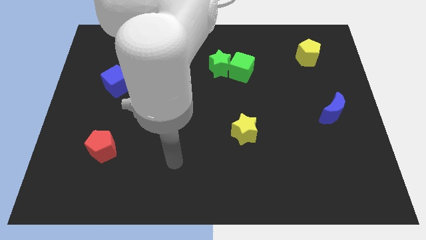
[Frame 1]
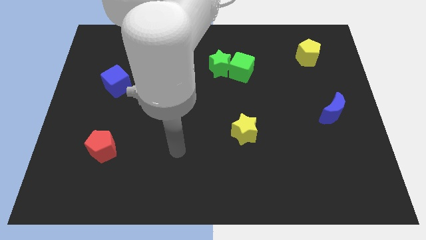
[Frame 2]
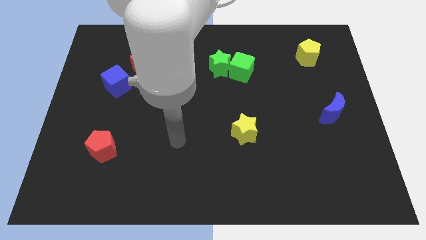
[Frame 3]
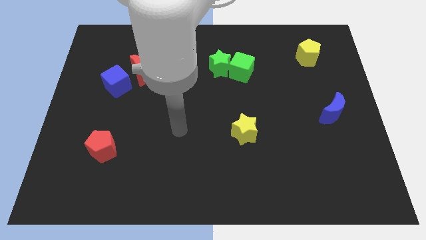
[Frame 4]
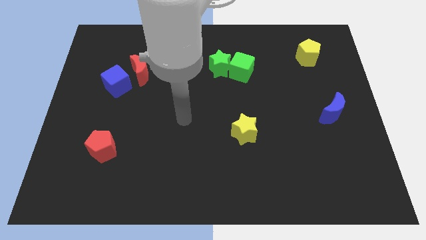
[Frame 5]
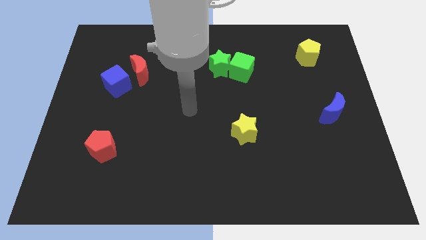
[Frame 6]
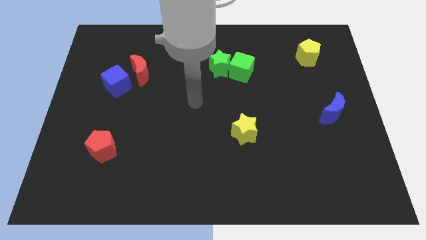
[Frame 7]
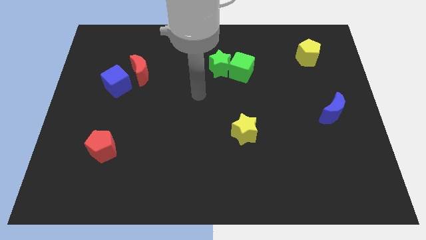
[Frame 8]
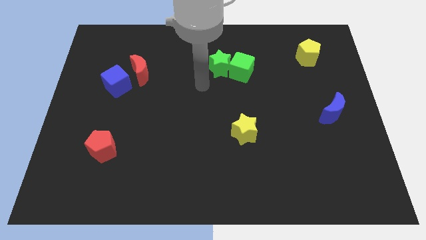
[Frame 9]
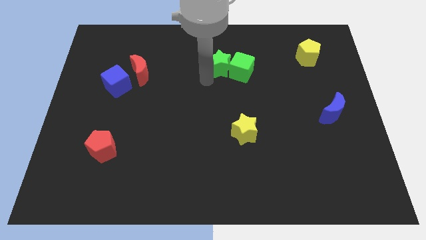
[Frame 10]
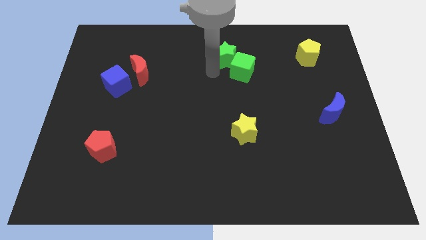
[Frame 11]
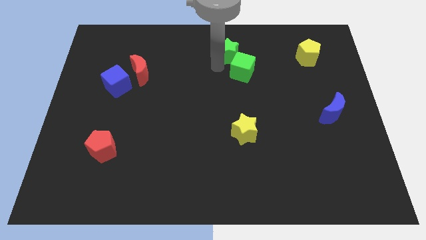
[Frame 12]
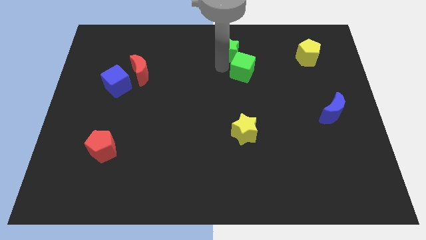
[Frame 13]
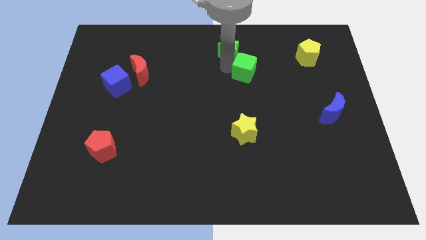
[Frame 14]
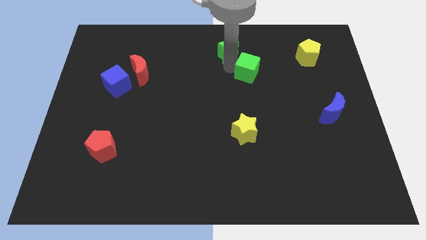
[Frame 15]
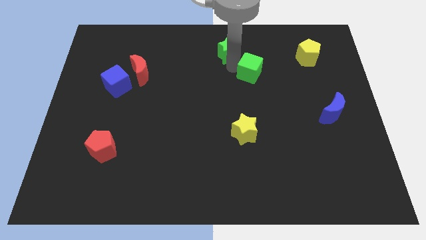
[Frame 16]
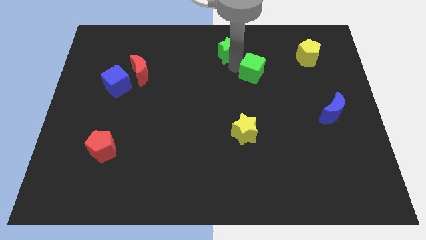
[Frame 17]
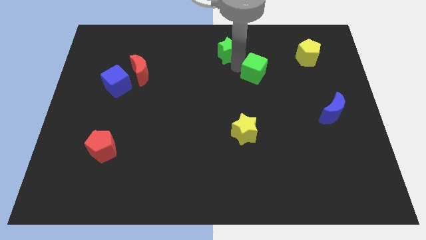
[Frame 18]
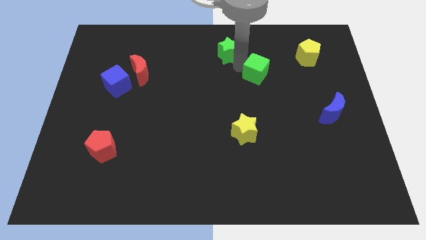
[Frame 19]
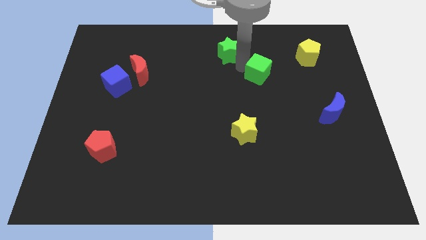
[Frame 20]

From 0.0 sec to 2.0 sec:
move the green cube away from the green star

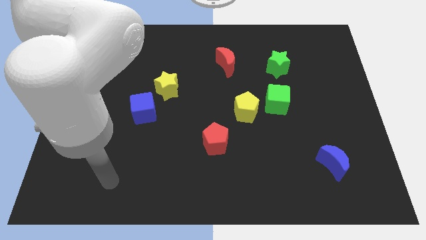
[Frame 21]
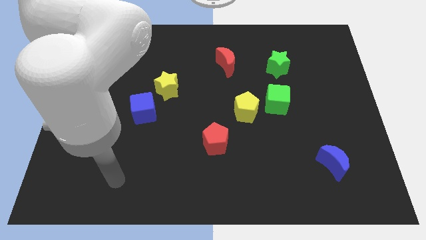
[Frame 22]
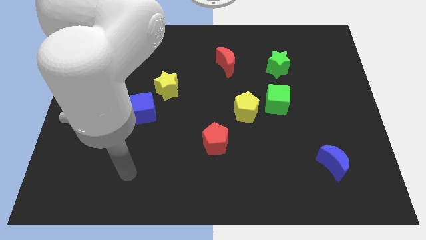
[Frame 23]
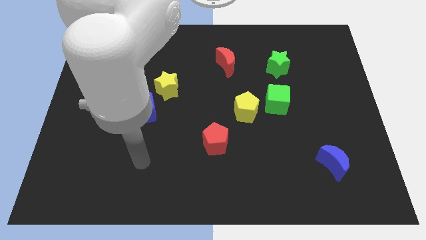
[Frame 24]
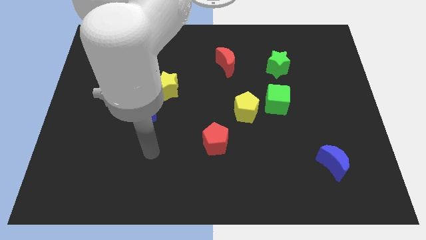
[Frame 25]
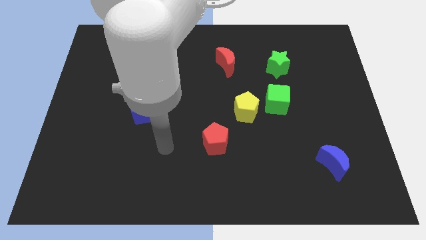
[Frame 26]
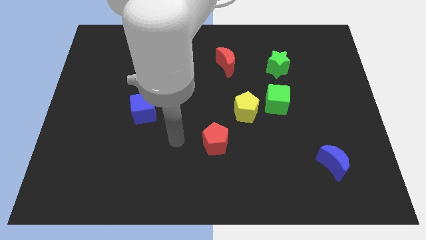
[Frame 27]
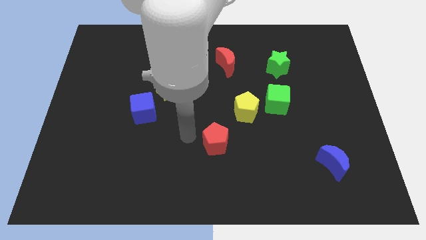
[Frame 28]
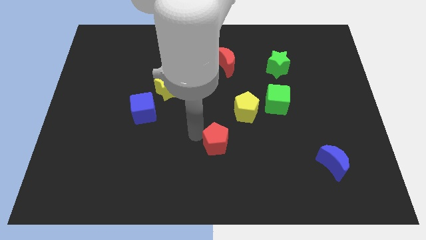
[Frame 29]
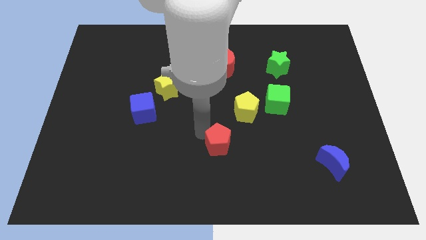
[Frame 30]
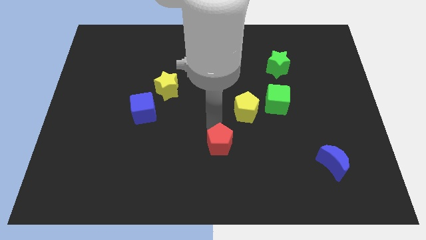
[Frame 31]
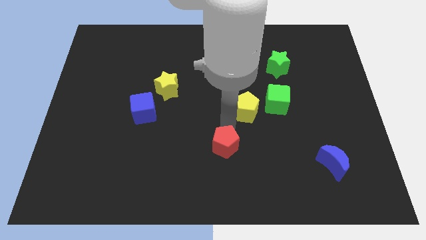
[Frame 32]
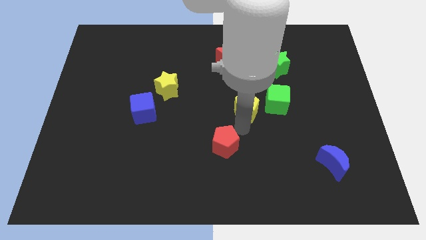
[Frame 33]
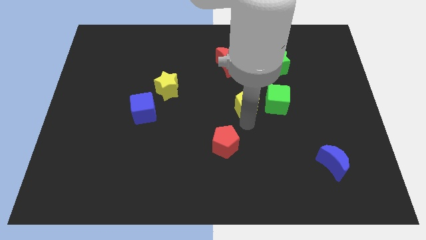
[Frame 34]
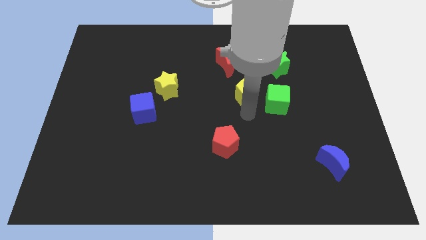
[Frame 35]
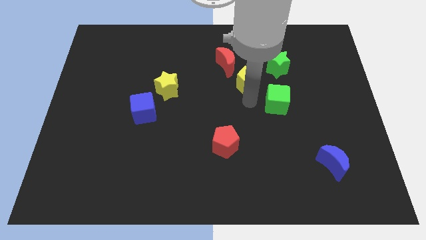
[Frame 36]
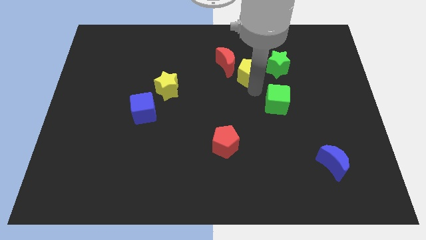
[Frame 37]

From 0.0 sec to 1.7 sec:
move the green cube away from the yellow pentagon

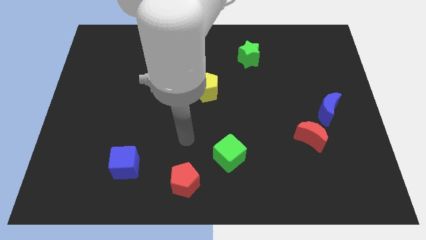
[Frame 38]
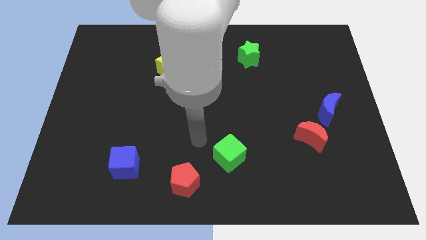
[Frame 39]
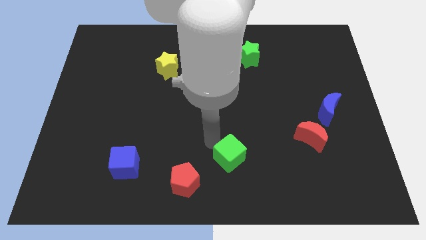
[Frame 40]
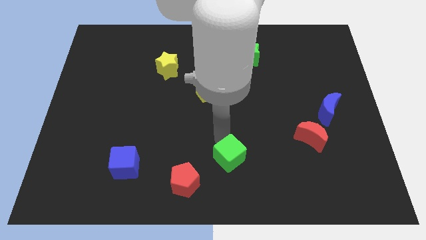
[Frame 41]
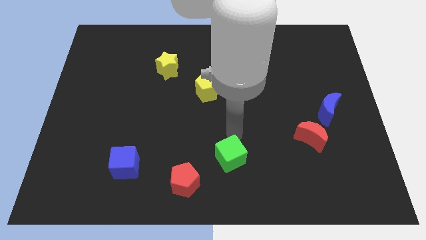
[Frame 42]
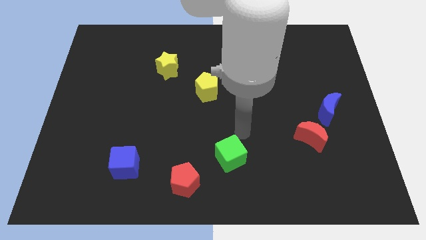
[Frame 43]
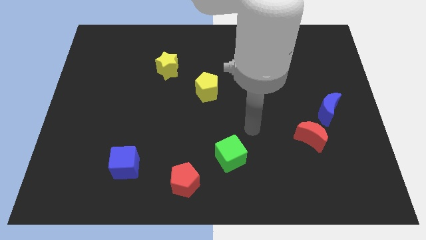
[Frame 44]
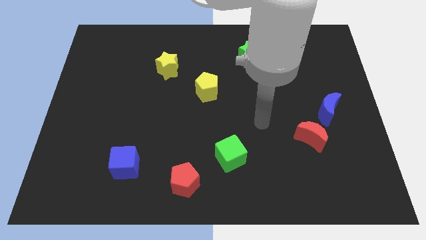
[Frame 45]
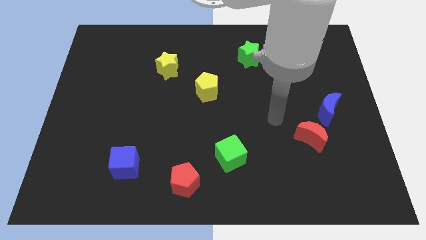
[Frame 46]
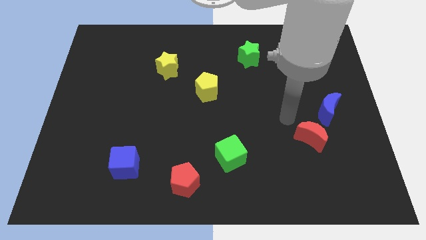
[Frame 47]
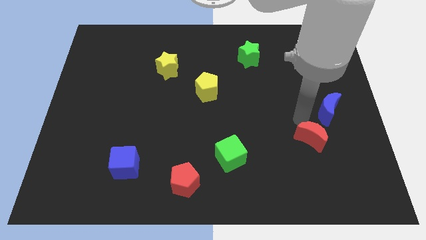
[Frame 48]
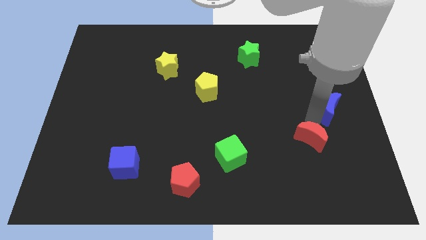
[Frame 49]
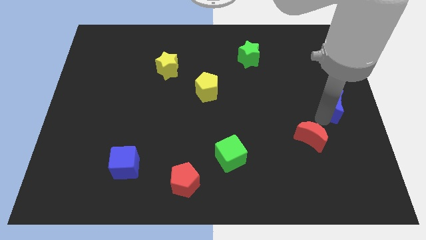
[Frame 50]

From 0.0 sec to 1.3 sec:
separate the red moon from the blue moon

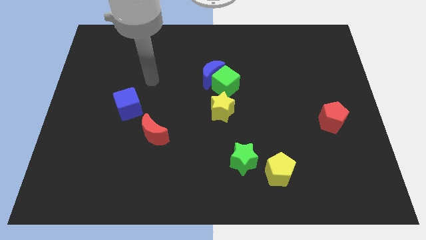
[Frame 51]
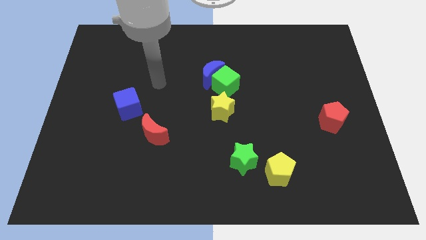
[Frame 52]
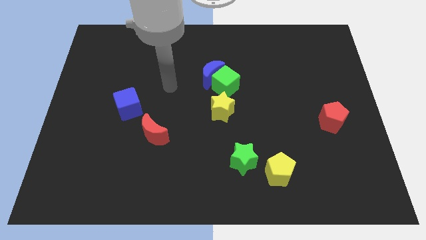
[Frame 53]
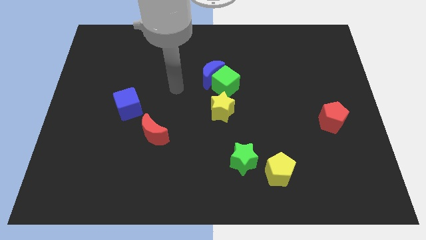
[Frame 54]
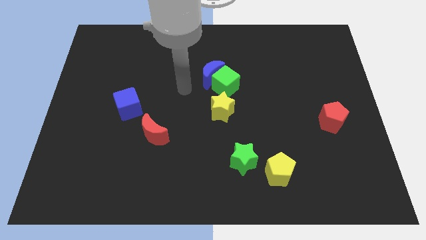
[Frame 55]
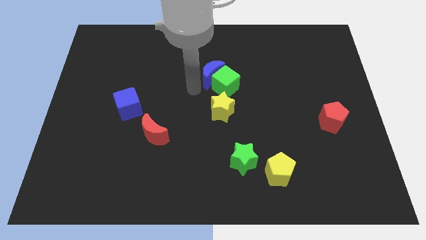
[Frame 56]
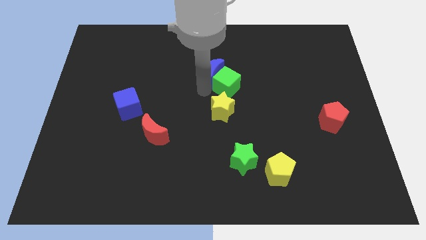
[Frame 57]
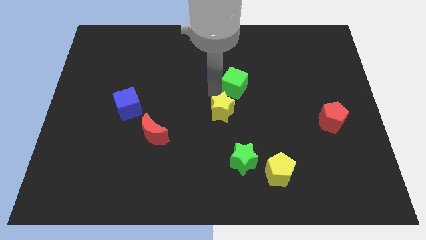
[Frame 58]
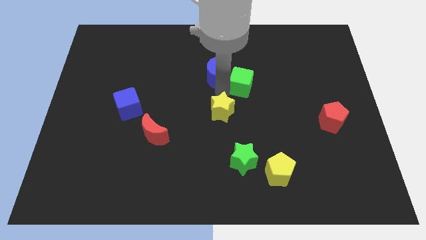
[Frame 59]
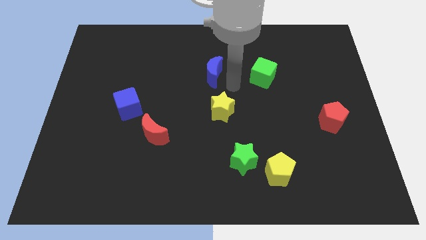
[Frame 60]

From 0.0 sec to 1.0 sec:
separate the blue moon from the green cube

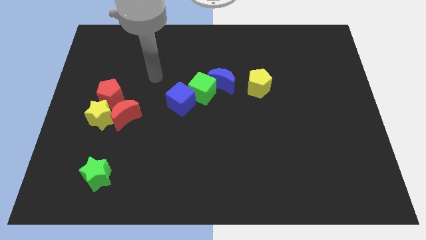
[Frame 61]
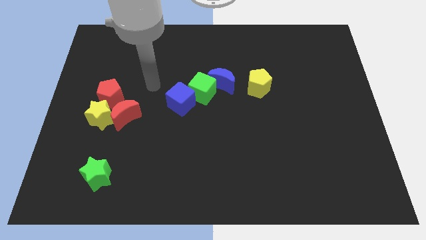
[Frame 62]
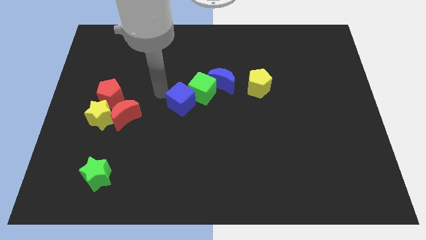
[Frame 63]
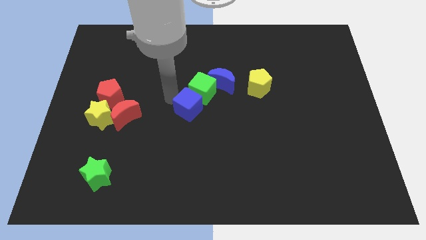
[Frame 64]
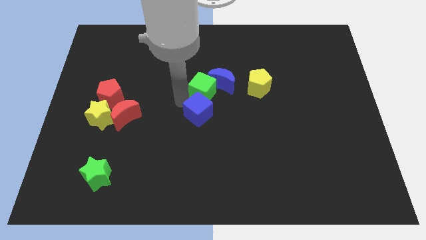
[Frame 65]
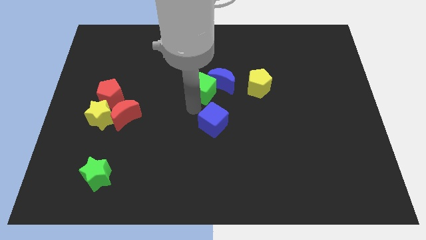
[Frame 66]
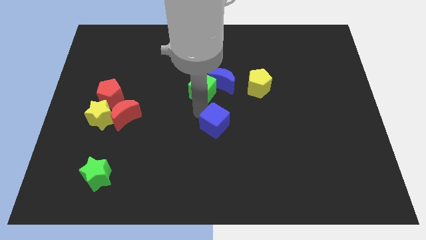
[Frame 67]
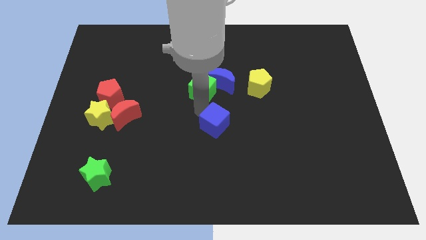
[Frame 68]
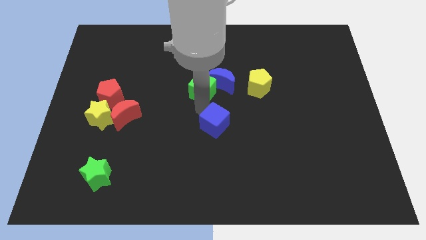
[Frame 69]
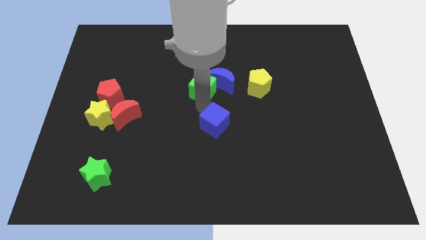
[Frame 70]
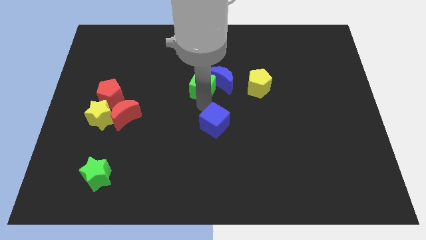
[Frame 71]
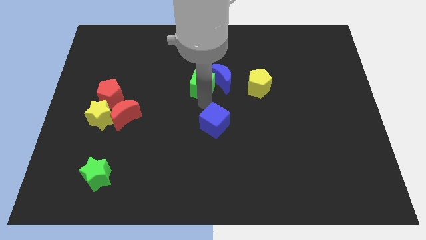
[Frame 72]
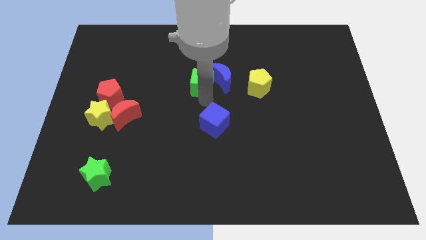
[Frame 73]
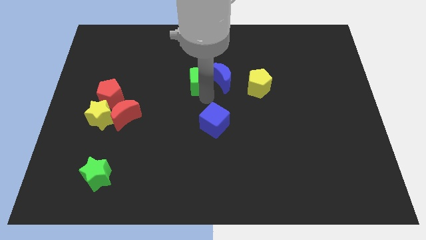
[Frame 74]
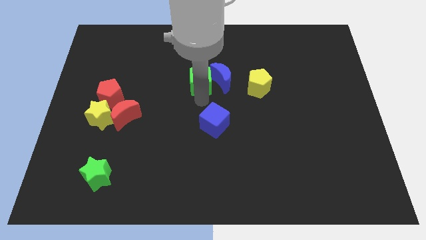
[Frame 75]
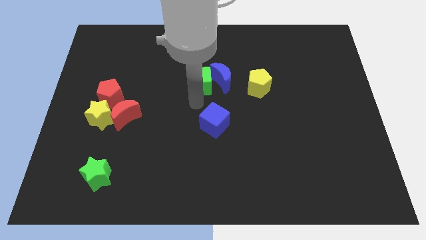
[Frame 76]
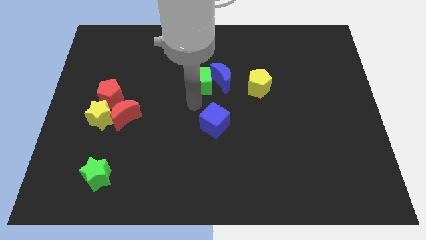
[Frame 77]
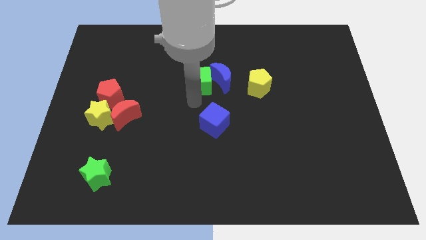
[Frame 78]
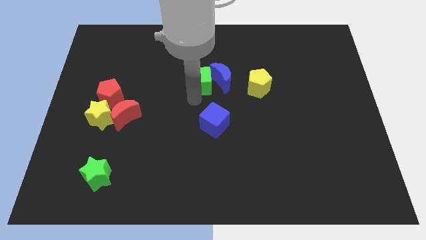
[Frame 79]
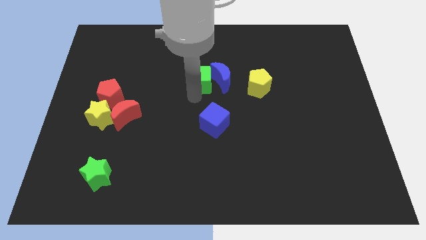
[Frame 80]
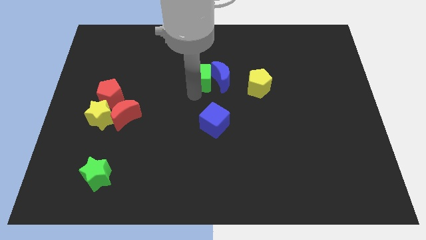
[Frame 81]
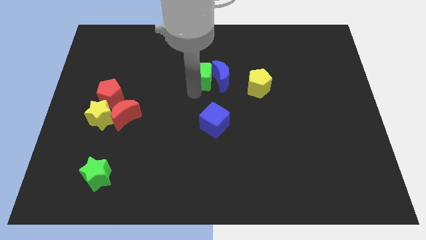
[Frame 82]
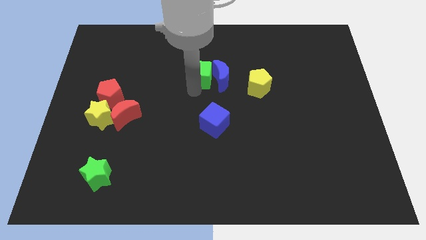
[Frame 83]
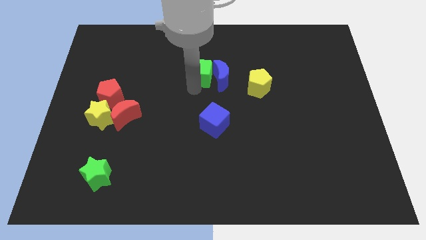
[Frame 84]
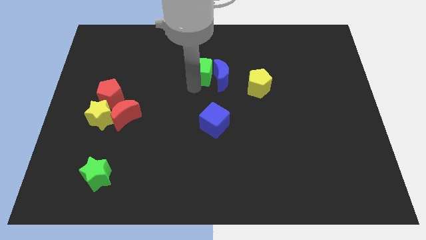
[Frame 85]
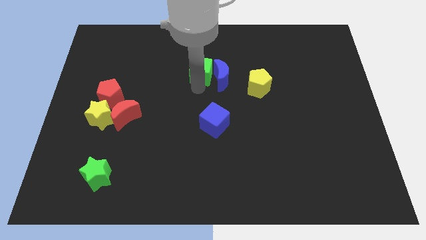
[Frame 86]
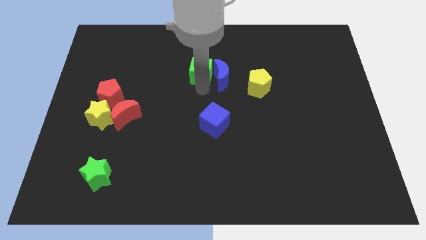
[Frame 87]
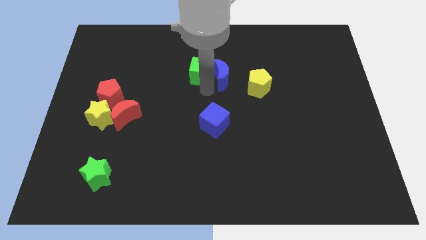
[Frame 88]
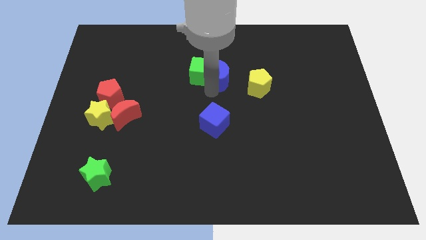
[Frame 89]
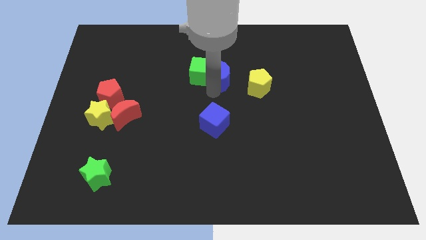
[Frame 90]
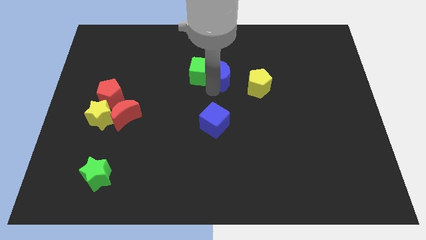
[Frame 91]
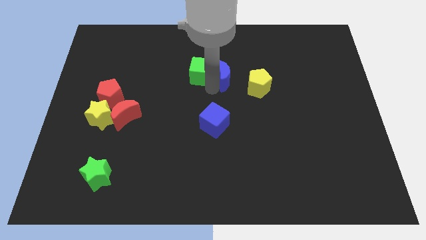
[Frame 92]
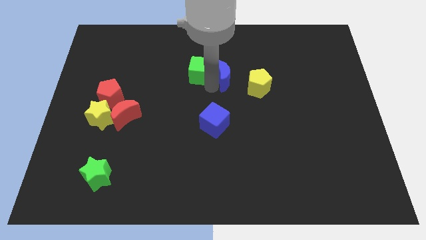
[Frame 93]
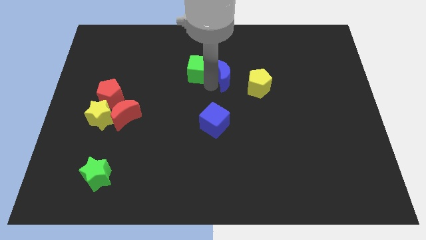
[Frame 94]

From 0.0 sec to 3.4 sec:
move the green cube away from the blue moon and blue cube
